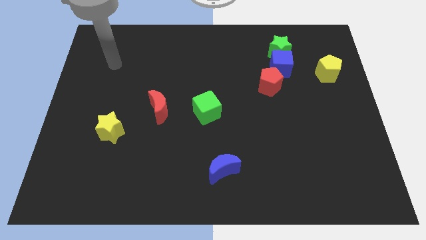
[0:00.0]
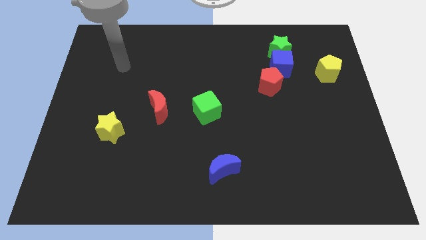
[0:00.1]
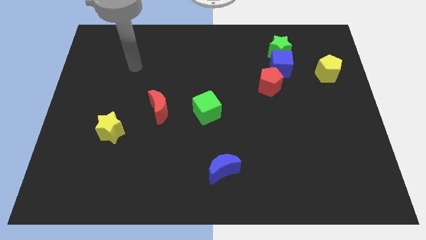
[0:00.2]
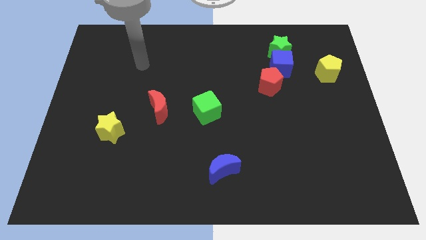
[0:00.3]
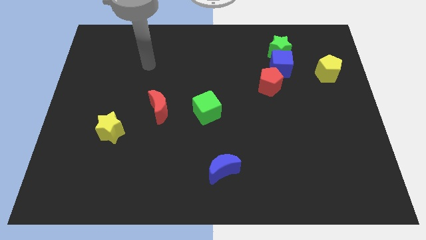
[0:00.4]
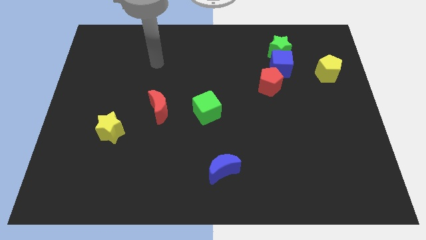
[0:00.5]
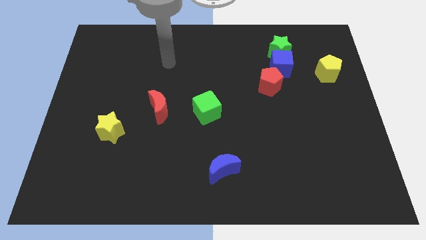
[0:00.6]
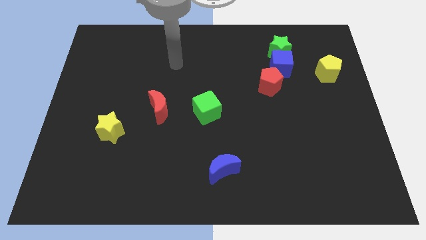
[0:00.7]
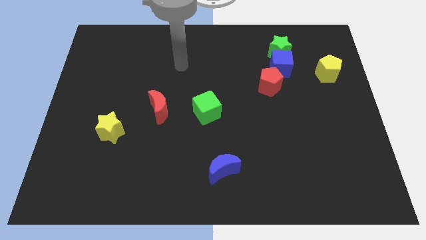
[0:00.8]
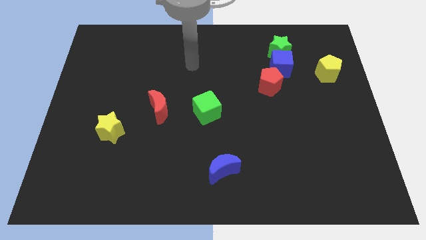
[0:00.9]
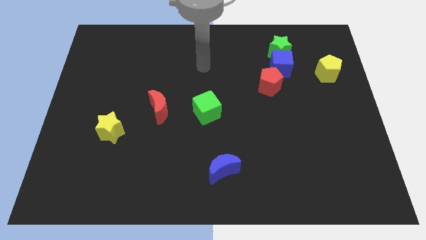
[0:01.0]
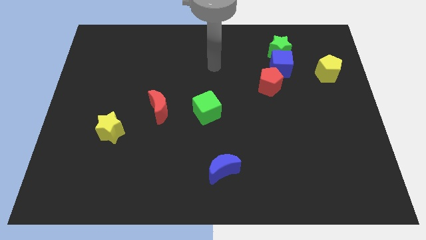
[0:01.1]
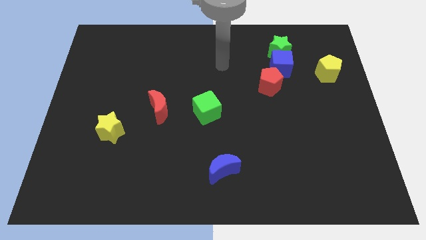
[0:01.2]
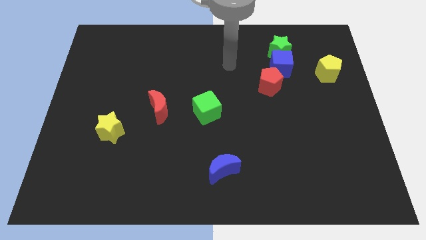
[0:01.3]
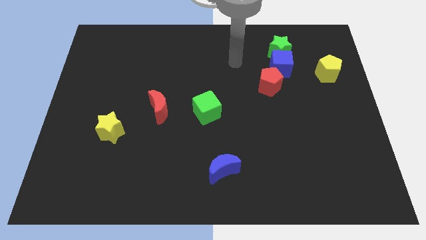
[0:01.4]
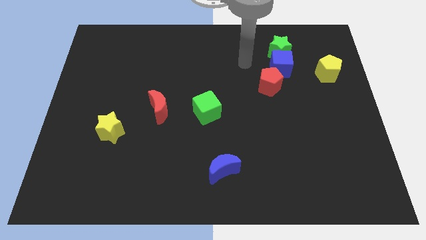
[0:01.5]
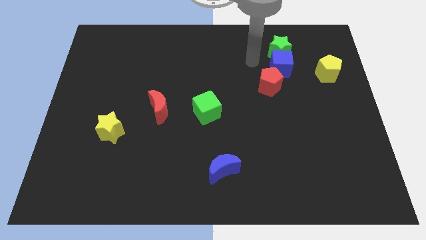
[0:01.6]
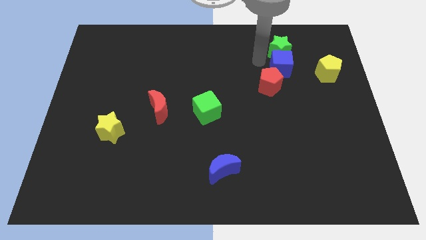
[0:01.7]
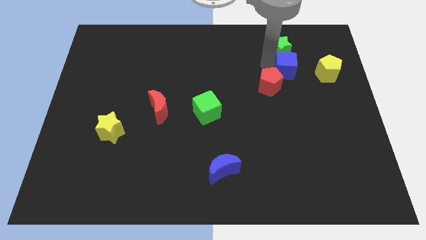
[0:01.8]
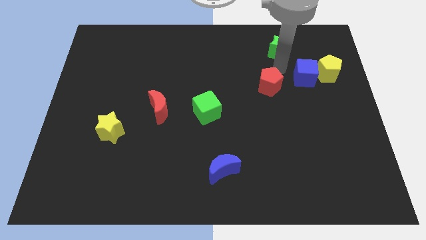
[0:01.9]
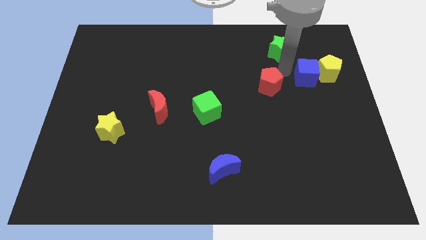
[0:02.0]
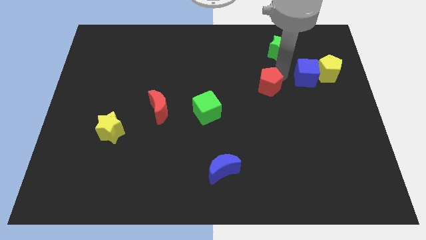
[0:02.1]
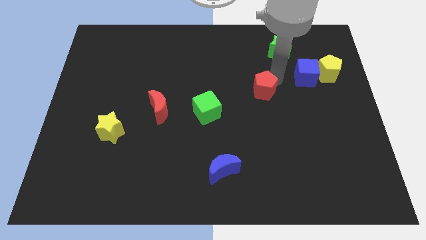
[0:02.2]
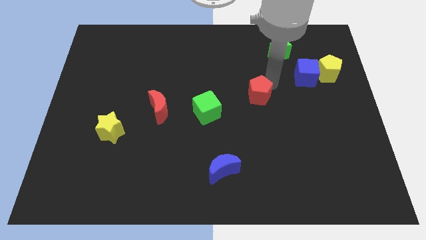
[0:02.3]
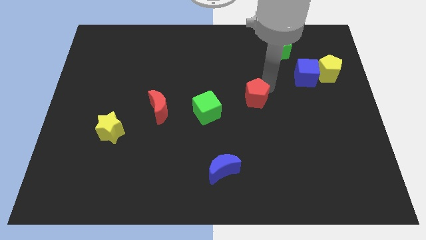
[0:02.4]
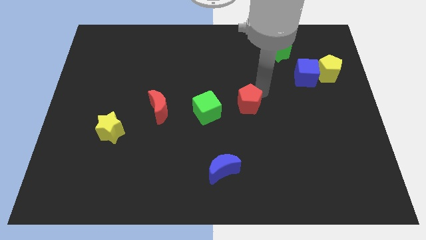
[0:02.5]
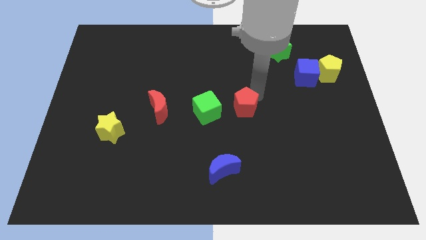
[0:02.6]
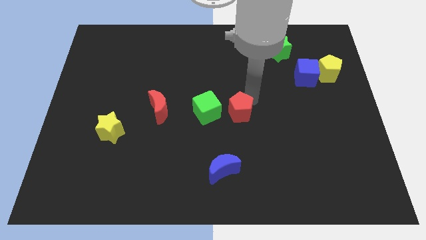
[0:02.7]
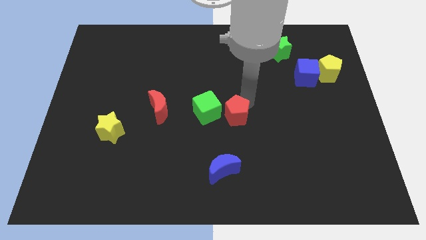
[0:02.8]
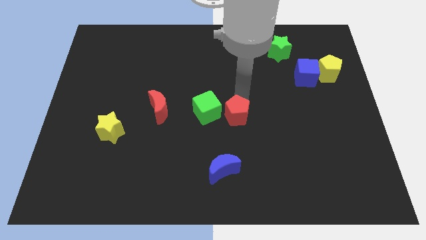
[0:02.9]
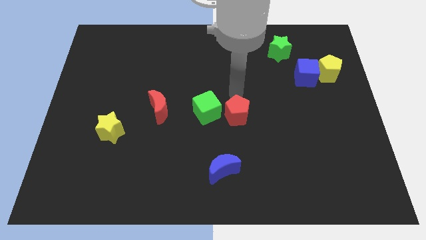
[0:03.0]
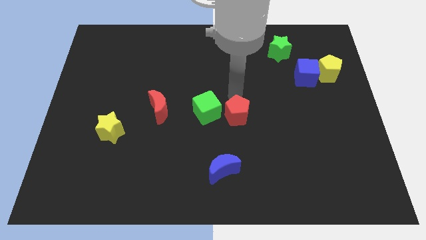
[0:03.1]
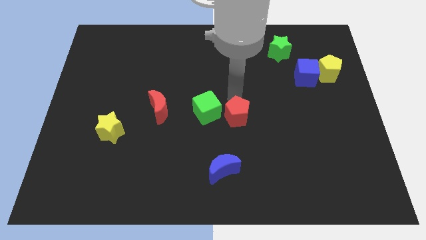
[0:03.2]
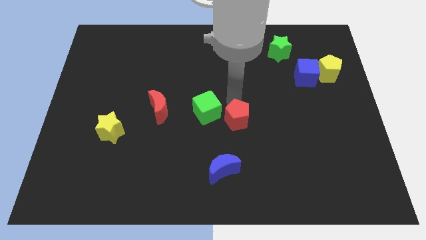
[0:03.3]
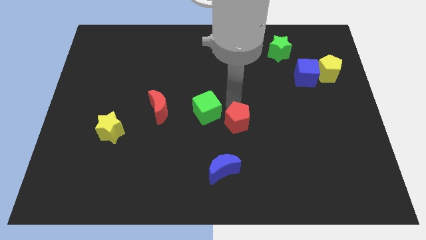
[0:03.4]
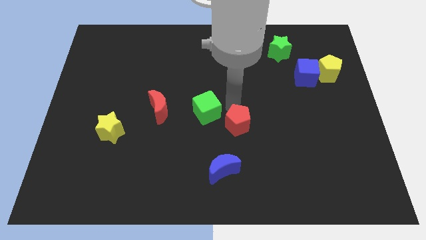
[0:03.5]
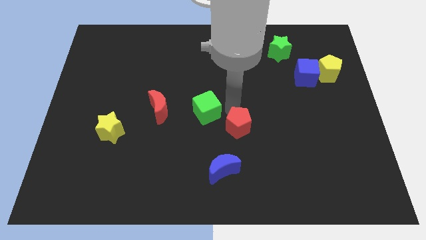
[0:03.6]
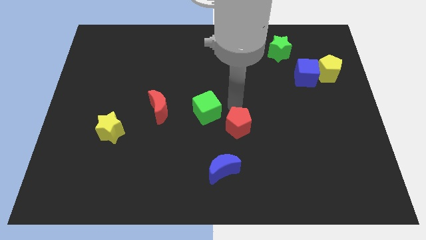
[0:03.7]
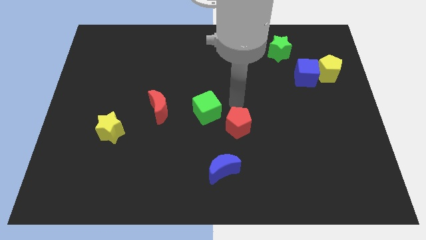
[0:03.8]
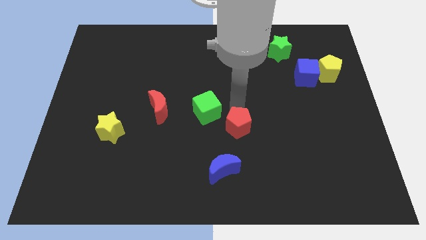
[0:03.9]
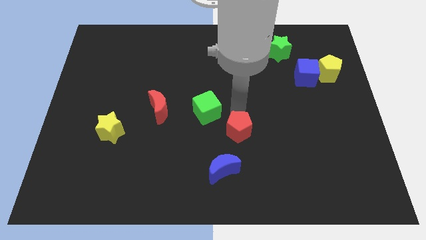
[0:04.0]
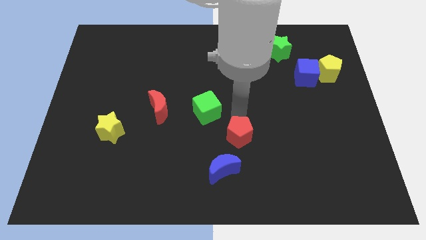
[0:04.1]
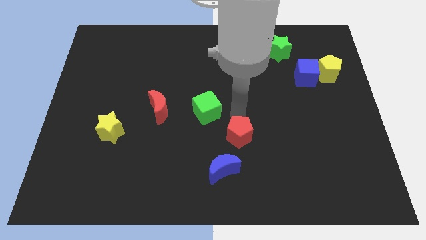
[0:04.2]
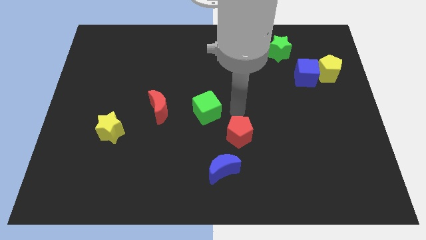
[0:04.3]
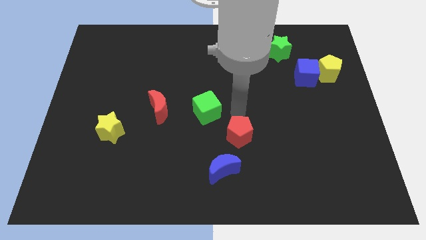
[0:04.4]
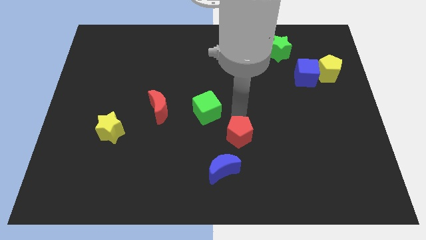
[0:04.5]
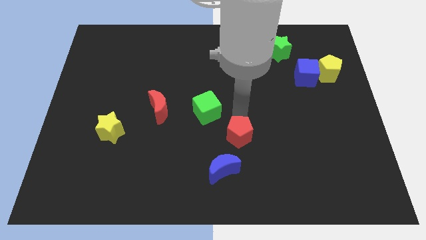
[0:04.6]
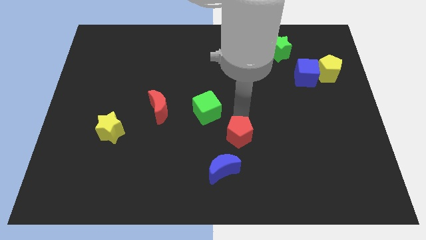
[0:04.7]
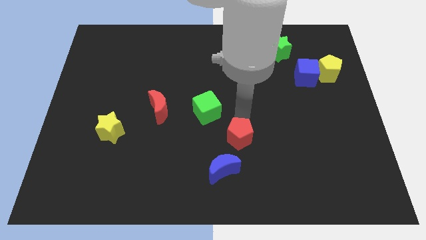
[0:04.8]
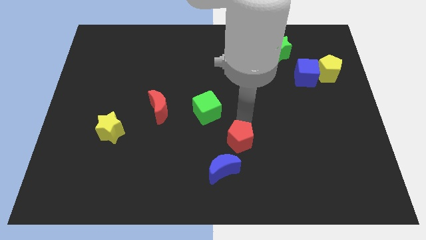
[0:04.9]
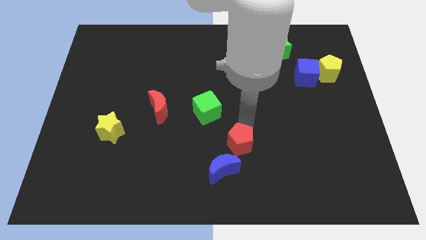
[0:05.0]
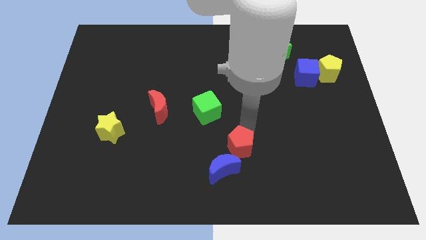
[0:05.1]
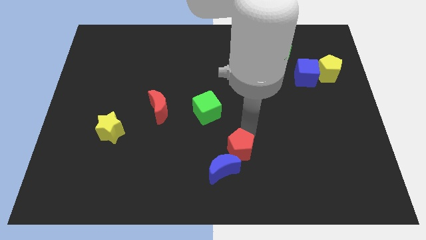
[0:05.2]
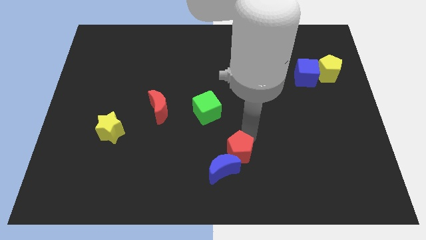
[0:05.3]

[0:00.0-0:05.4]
put the red pentagon to the blue moon

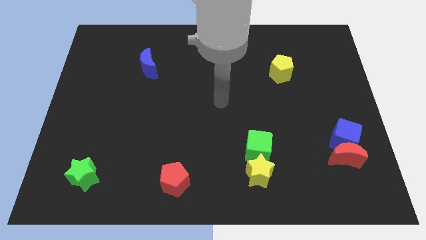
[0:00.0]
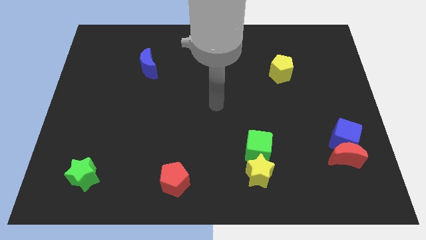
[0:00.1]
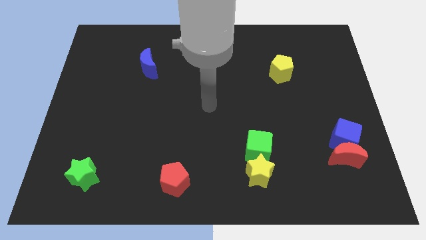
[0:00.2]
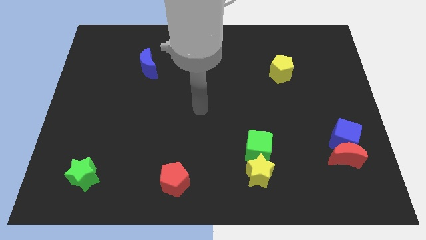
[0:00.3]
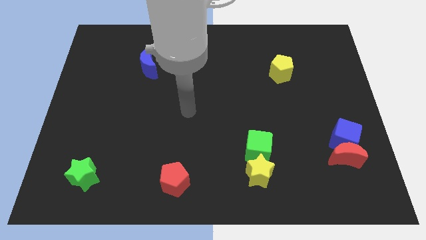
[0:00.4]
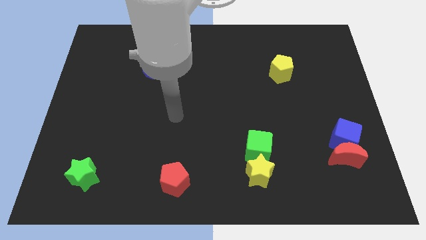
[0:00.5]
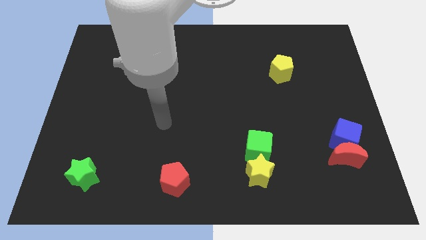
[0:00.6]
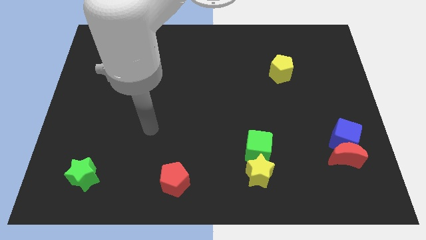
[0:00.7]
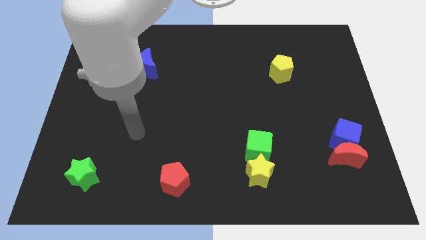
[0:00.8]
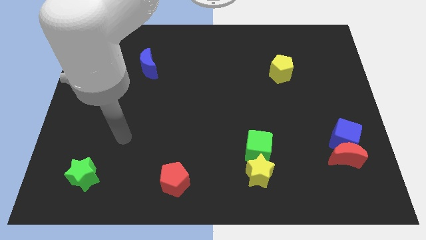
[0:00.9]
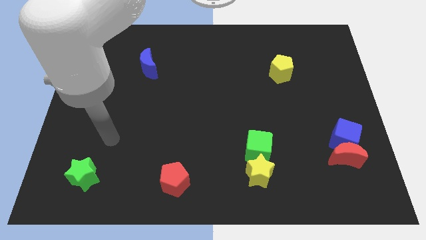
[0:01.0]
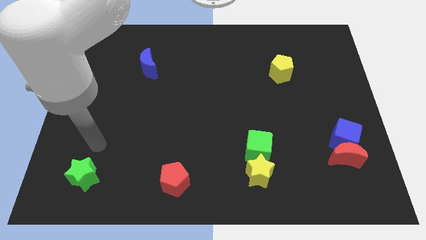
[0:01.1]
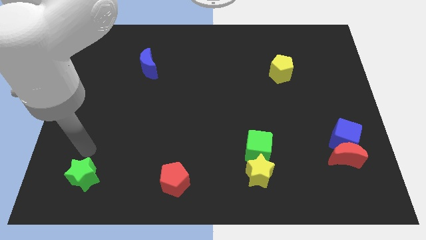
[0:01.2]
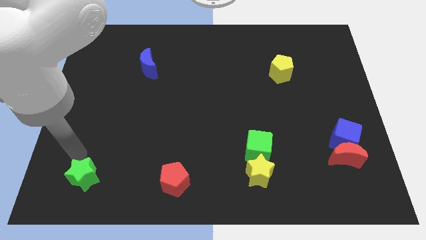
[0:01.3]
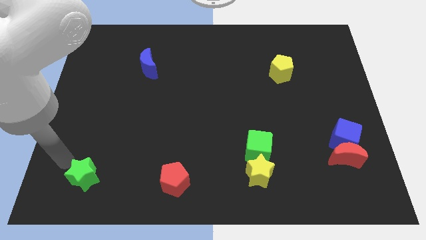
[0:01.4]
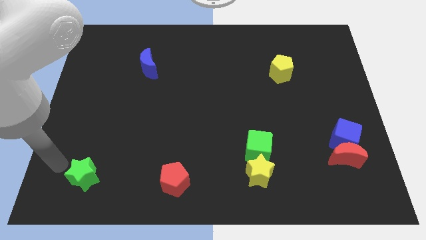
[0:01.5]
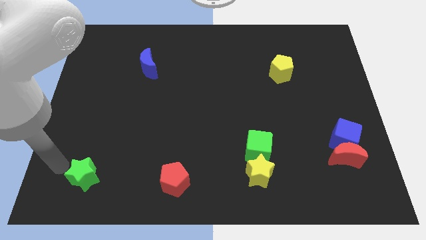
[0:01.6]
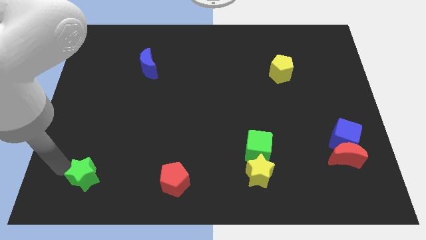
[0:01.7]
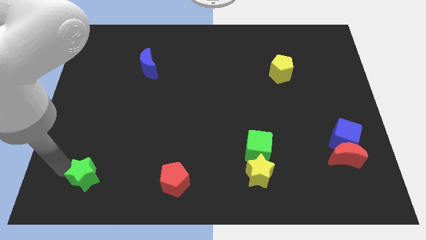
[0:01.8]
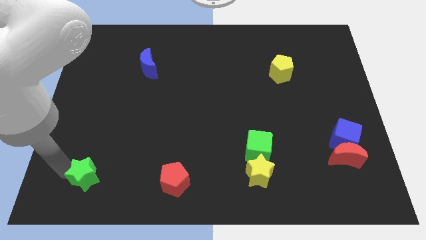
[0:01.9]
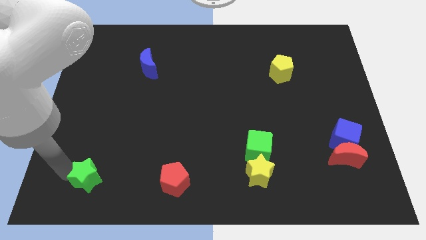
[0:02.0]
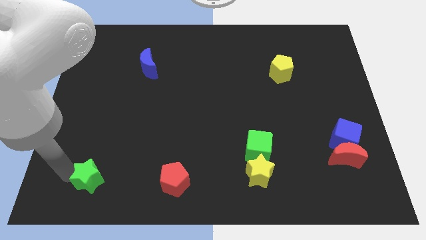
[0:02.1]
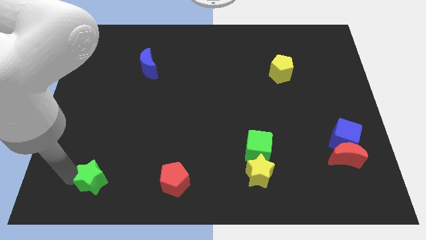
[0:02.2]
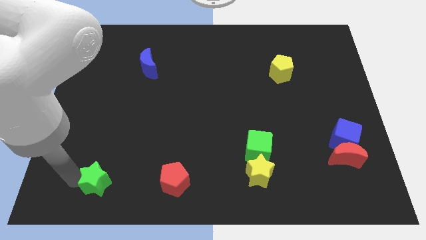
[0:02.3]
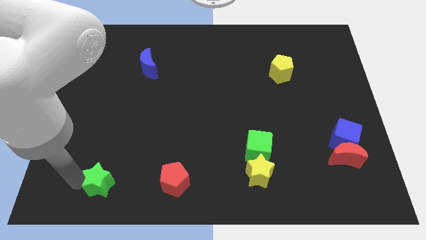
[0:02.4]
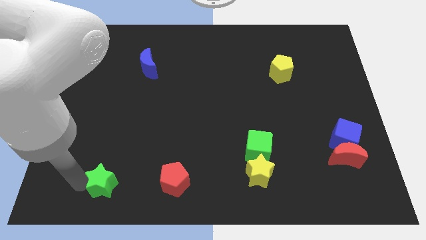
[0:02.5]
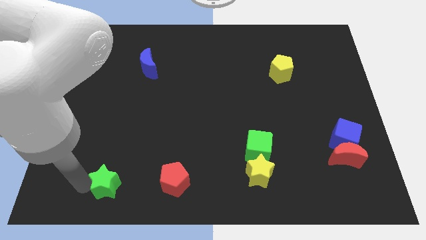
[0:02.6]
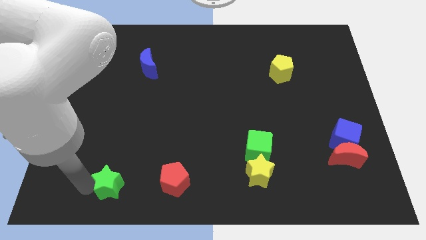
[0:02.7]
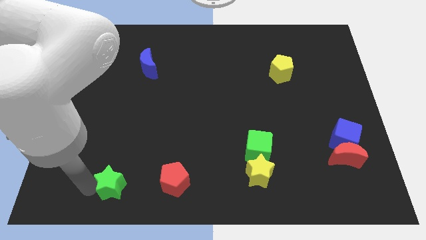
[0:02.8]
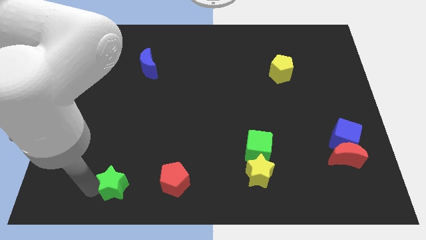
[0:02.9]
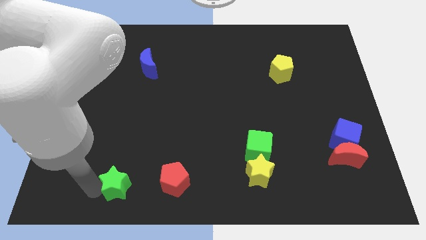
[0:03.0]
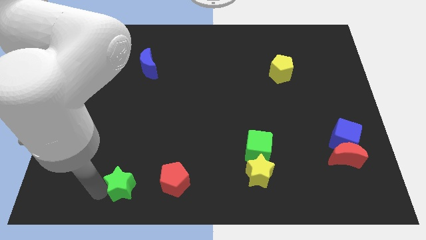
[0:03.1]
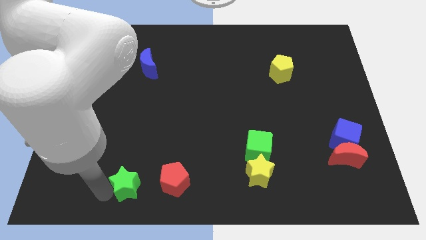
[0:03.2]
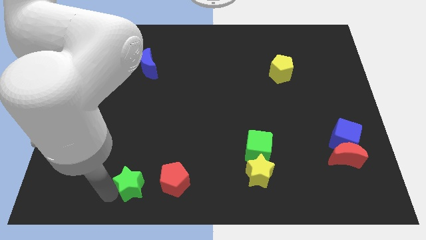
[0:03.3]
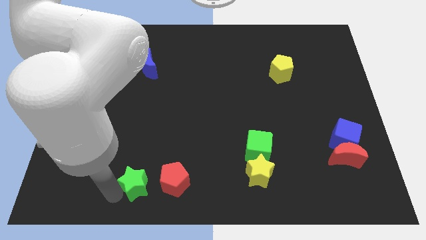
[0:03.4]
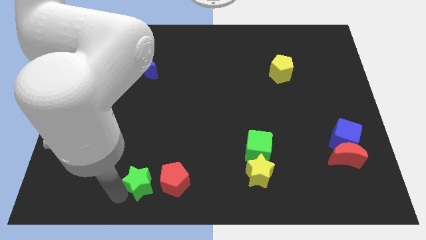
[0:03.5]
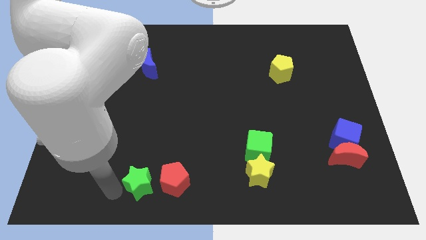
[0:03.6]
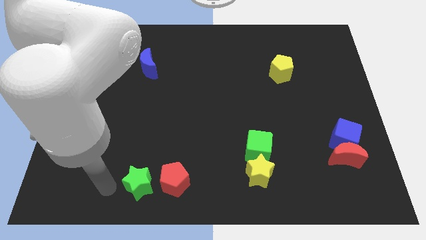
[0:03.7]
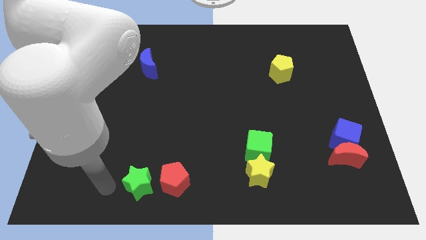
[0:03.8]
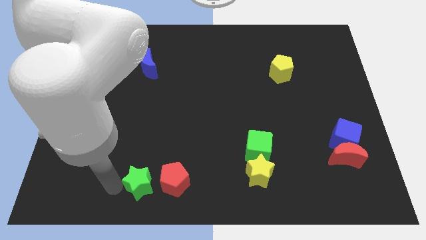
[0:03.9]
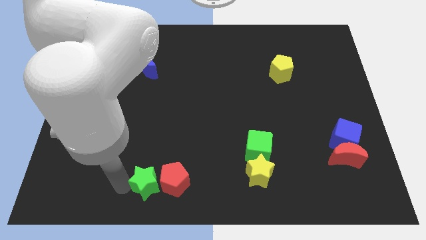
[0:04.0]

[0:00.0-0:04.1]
slide the green star close to the red pentagon
